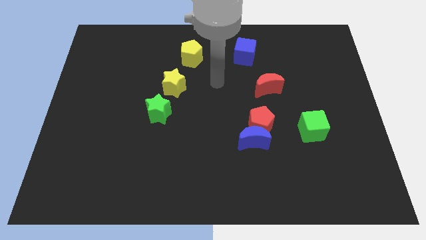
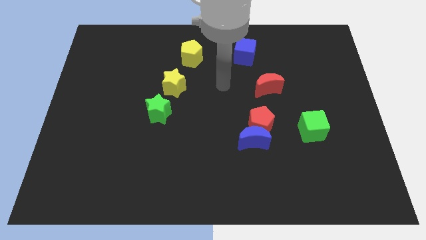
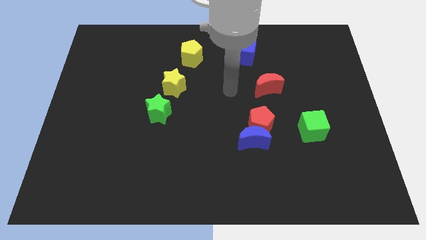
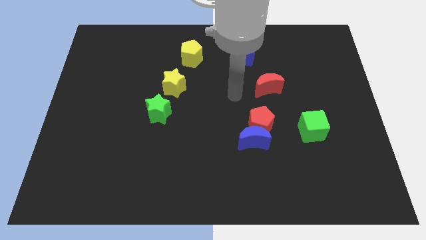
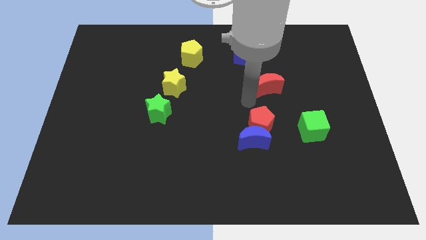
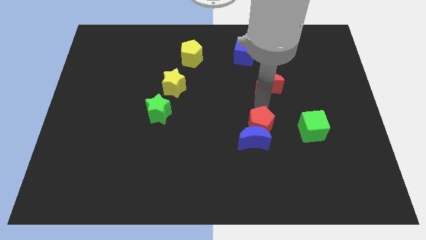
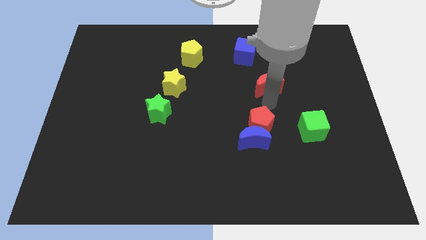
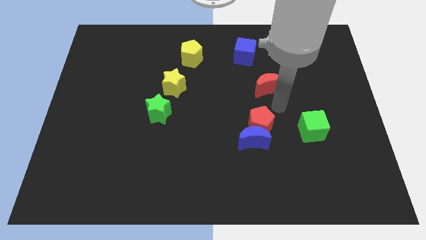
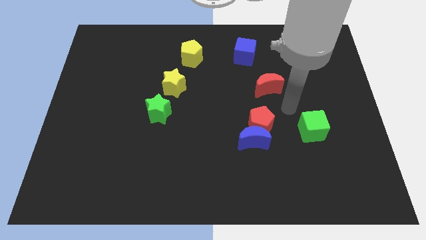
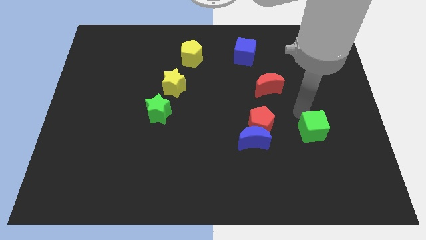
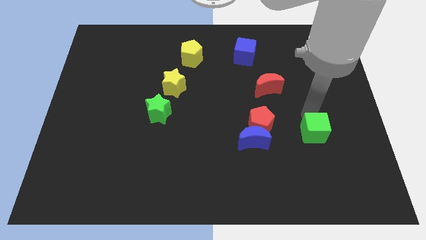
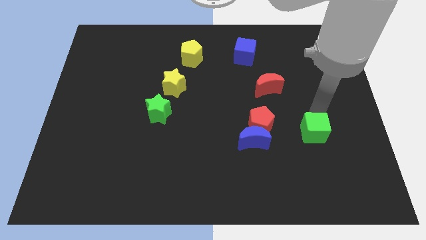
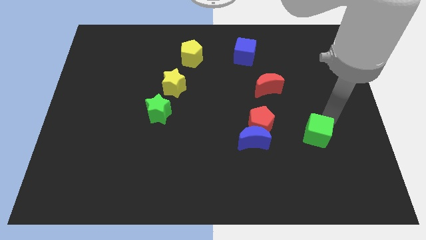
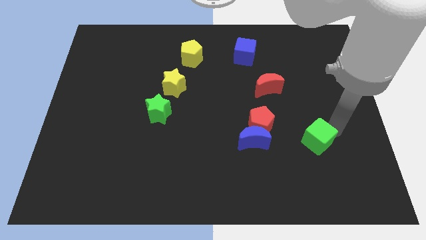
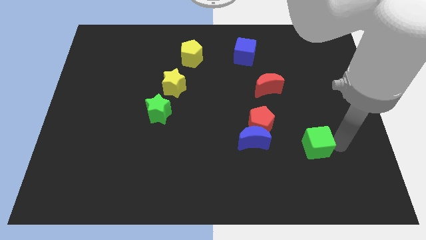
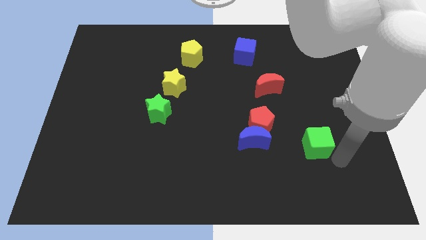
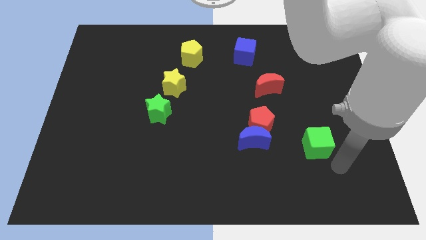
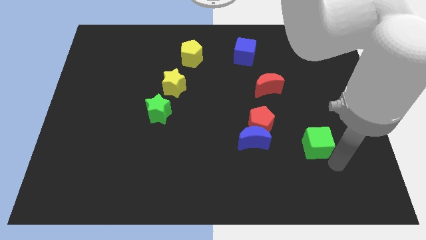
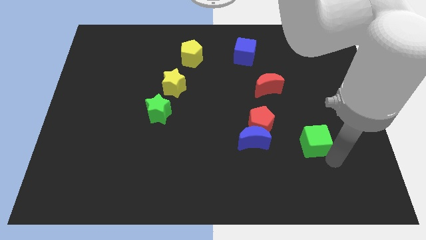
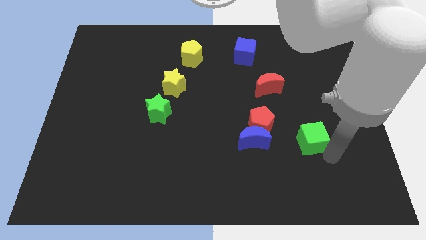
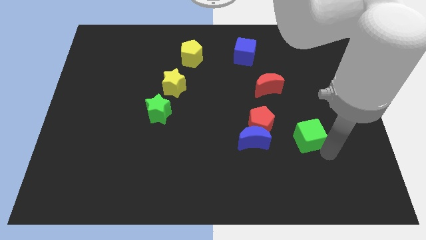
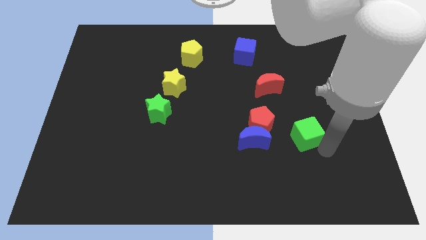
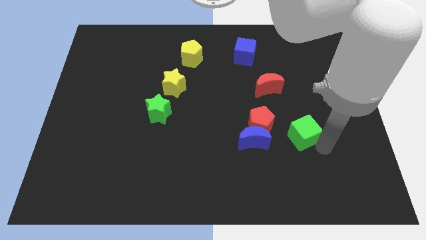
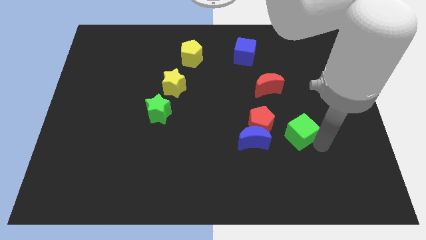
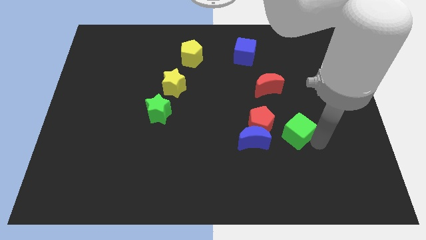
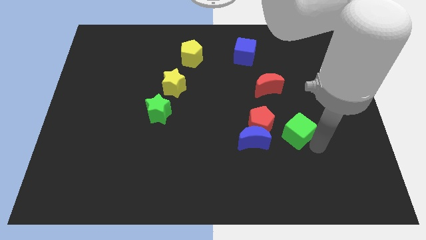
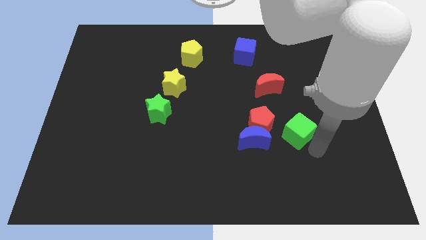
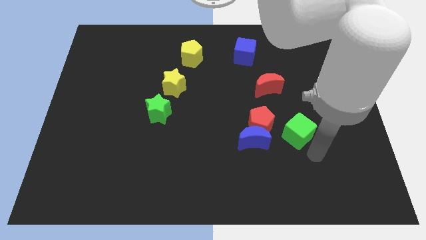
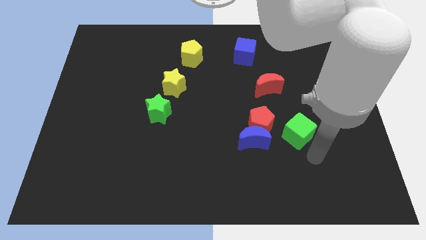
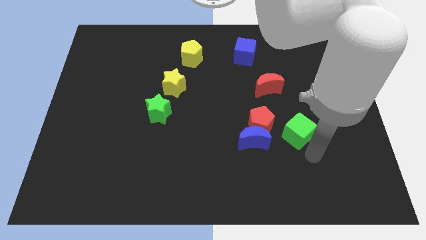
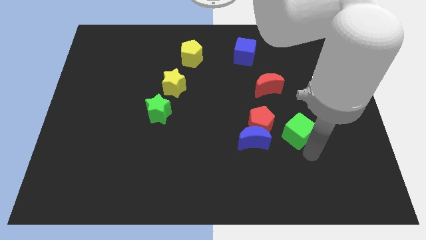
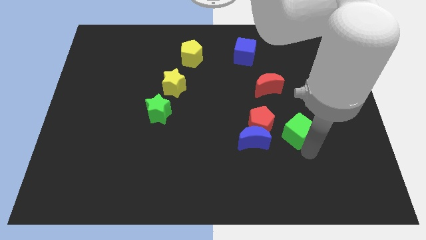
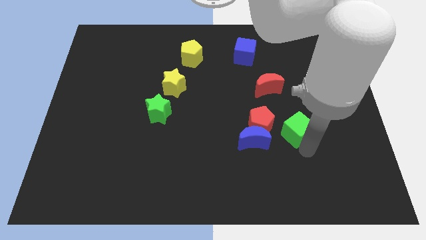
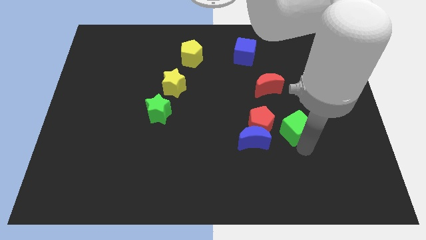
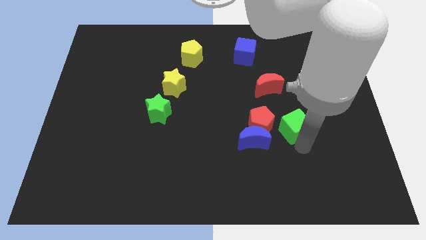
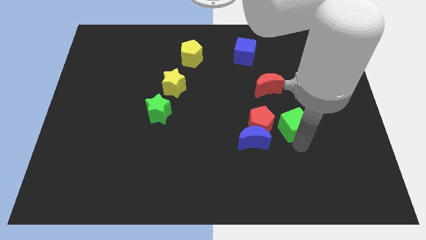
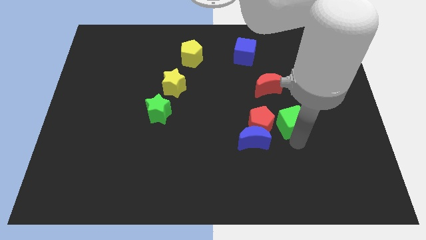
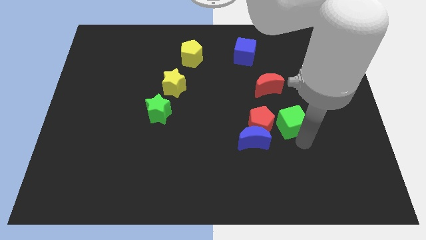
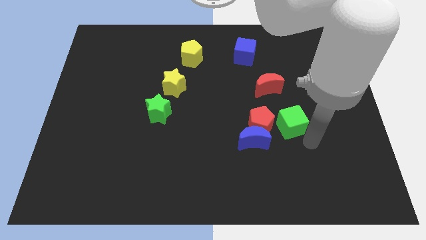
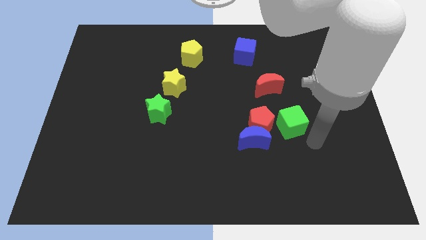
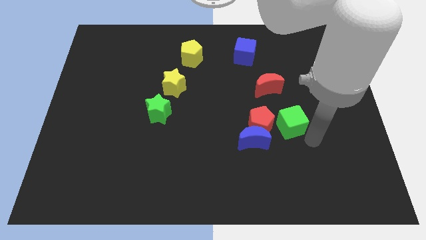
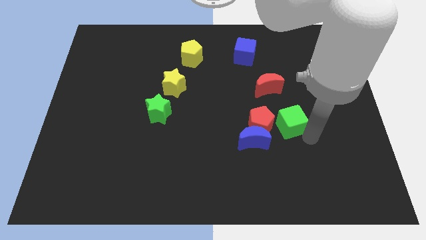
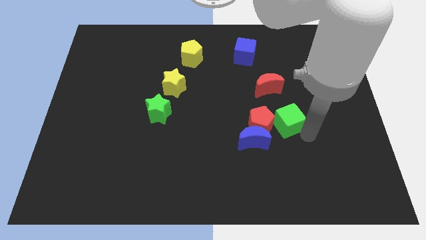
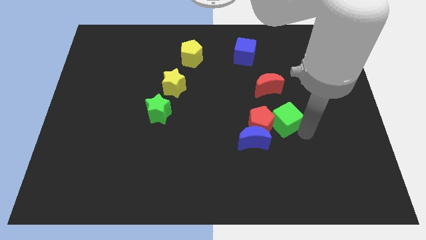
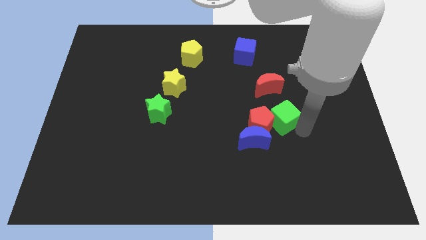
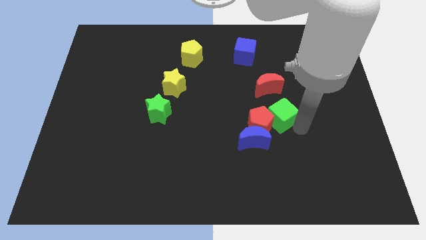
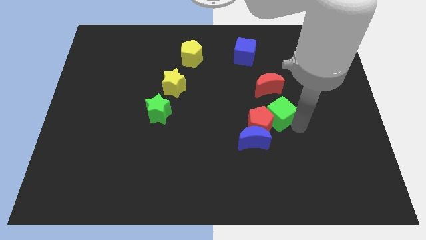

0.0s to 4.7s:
push the green cube a bit diagonally up and left

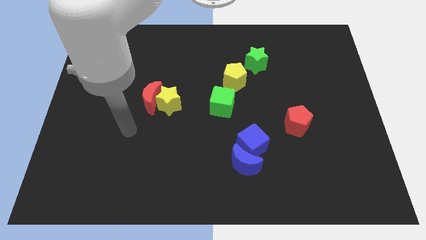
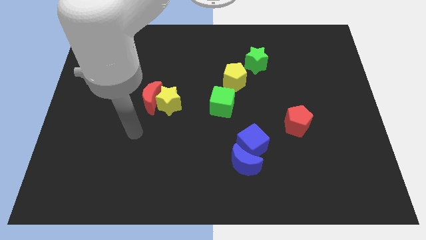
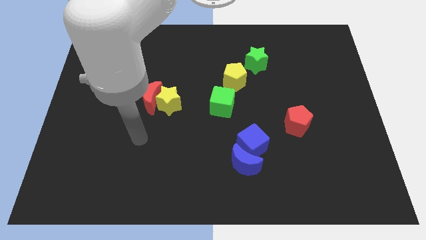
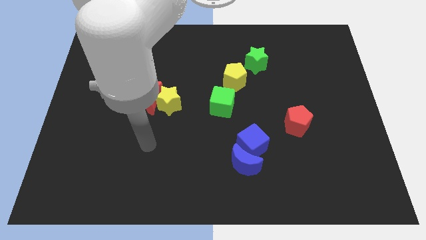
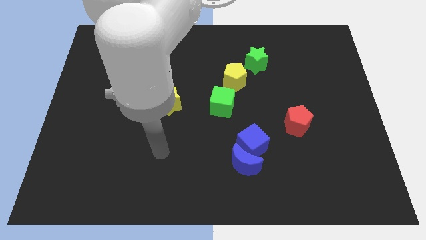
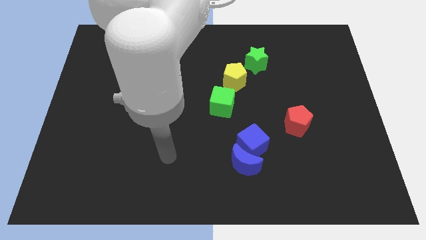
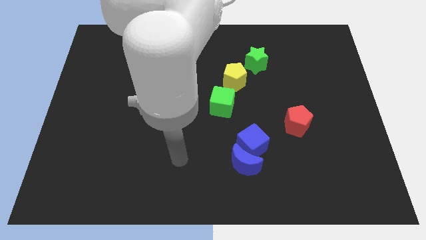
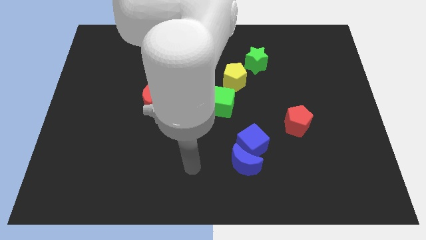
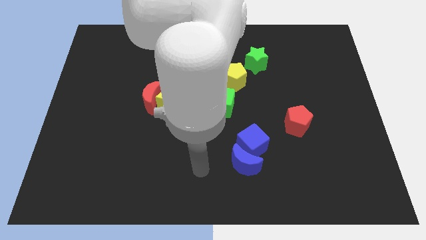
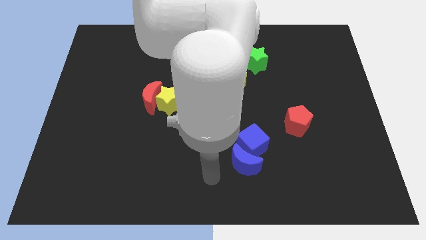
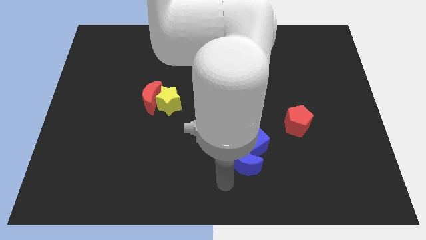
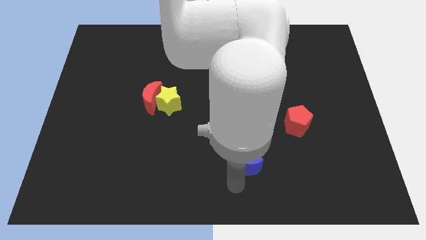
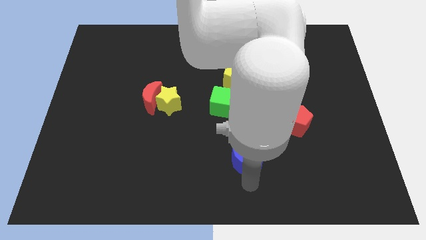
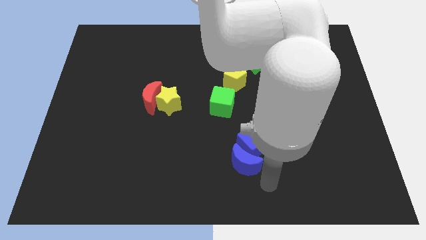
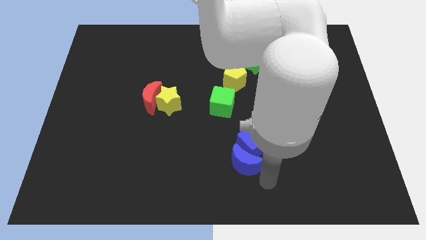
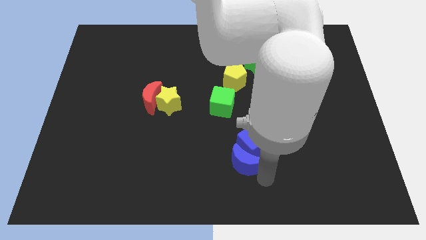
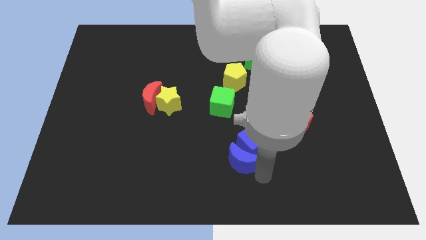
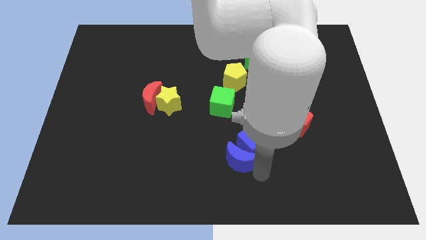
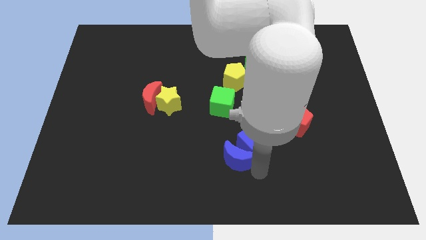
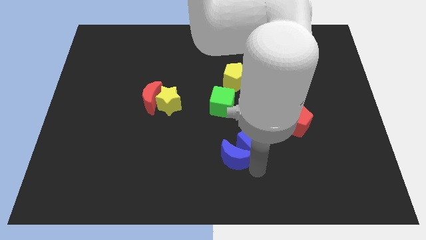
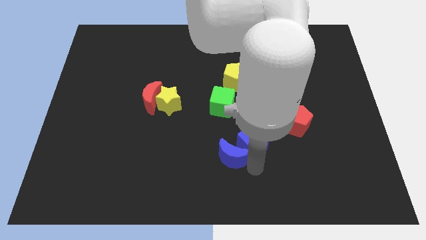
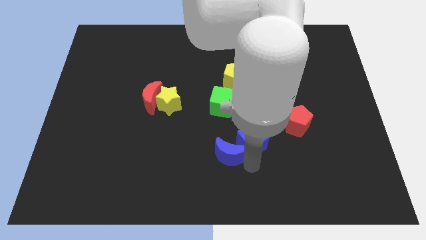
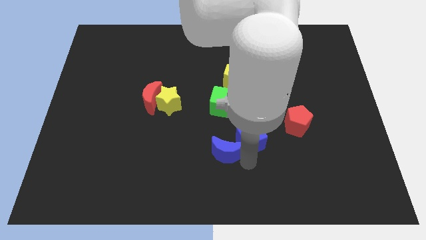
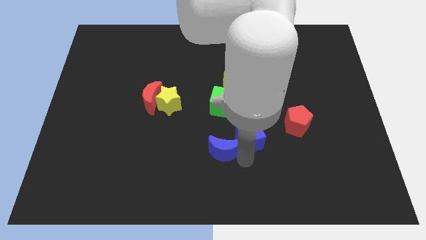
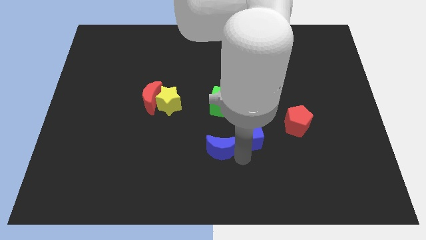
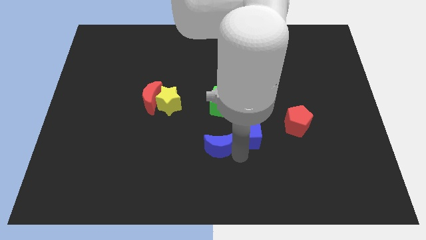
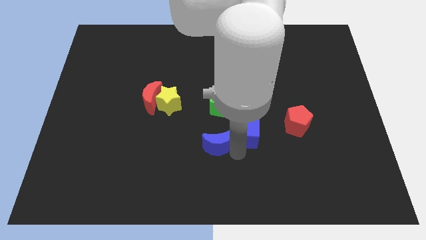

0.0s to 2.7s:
slide the blue moon somewhat up and then left

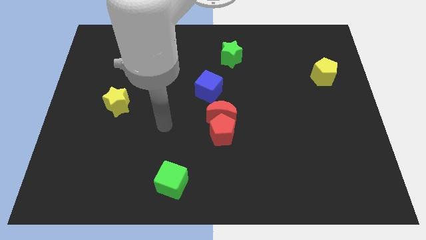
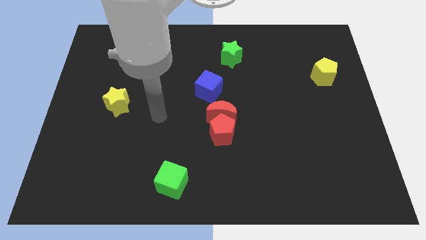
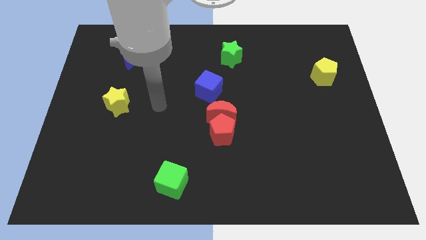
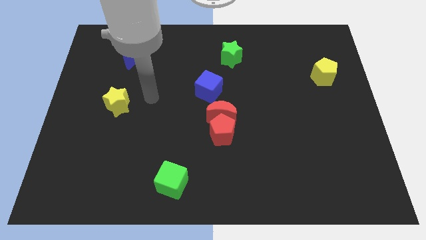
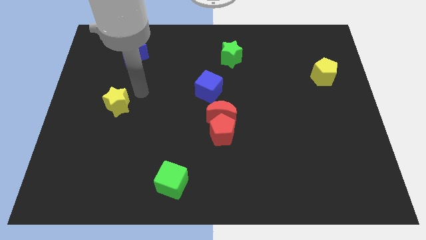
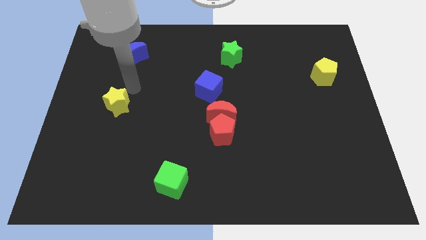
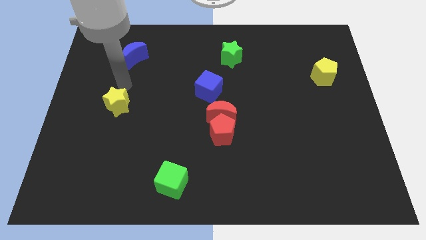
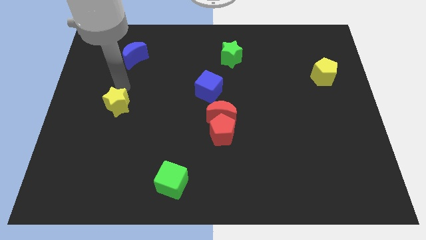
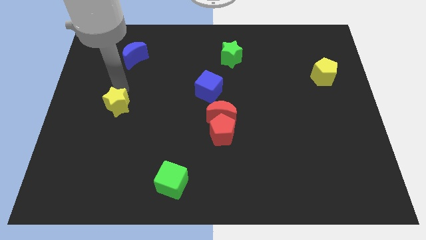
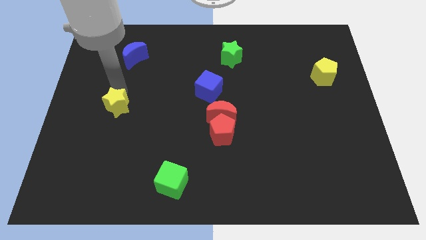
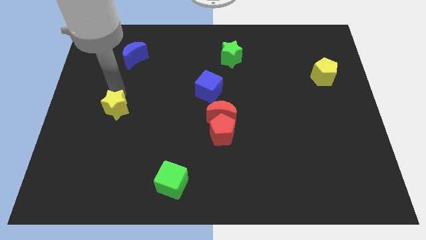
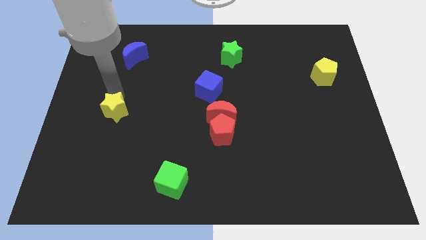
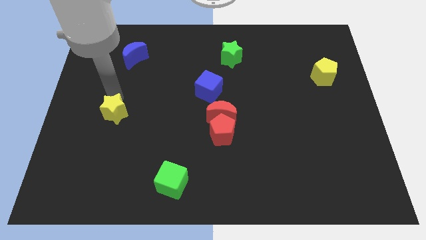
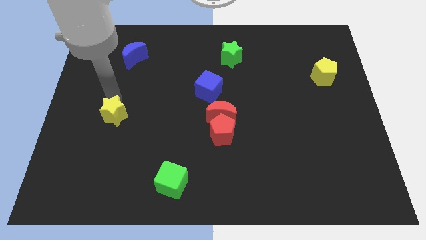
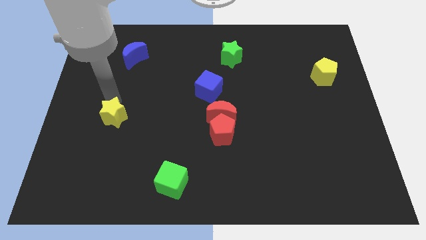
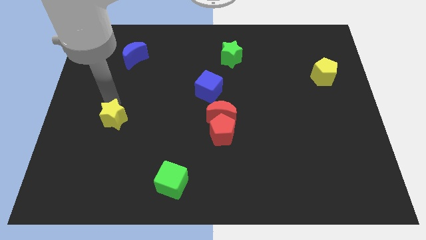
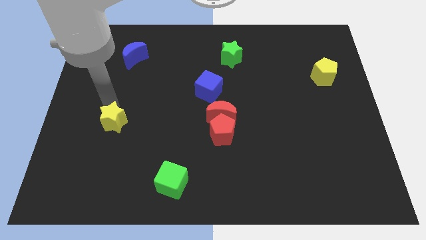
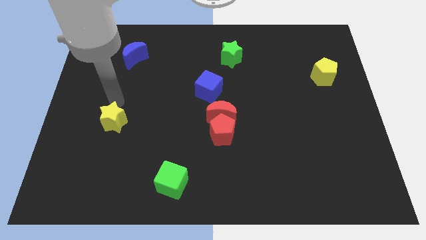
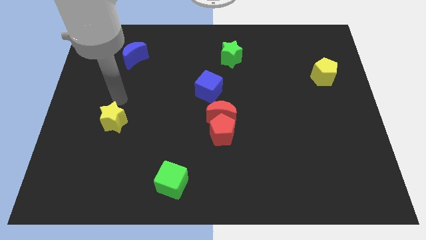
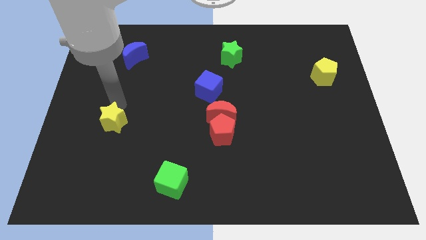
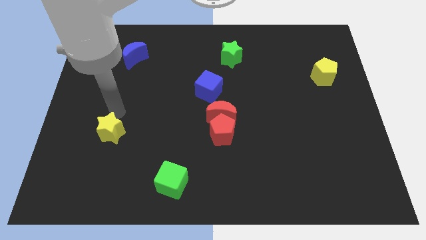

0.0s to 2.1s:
slightly move the yellow star downwards
